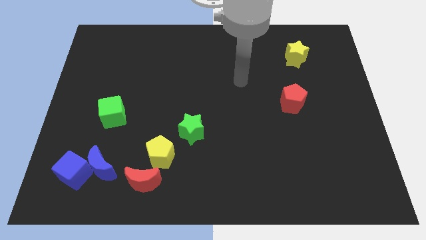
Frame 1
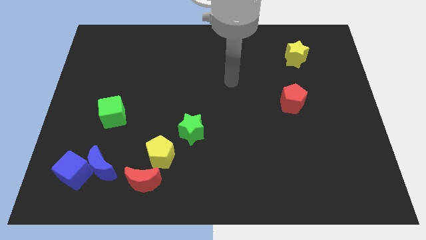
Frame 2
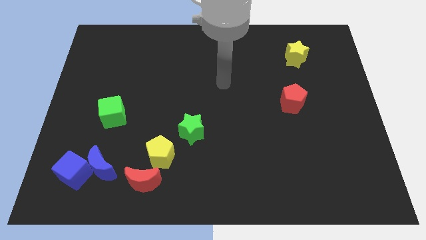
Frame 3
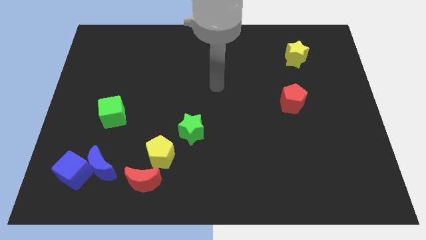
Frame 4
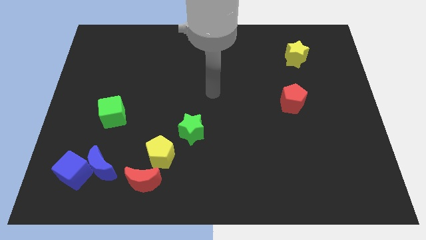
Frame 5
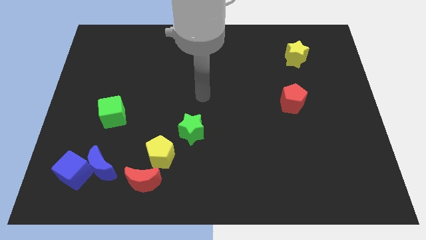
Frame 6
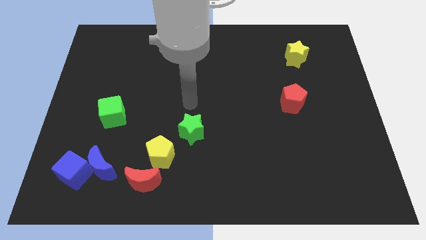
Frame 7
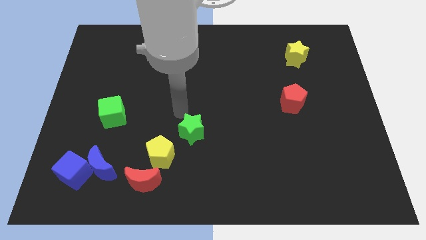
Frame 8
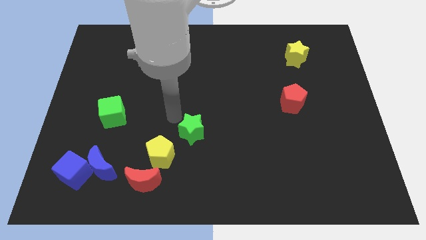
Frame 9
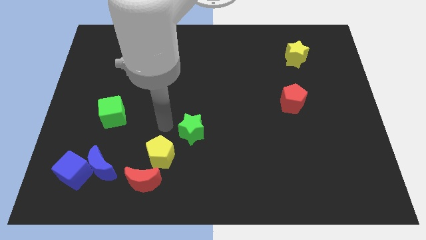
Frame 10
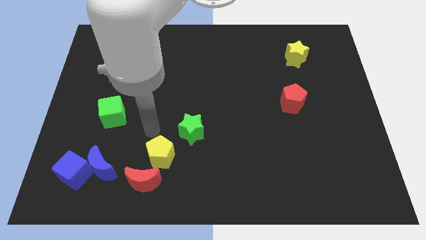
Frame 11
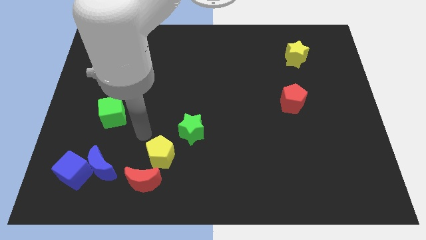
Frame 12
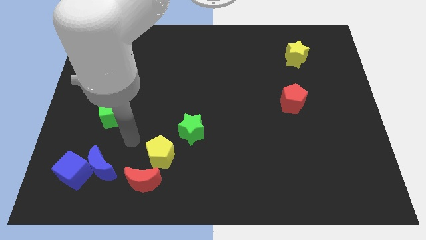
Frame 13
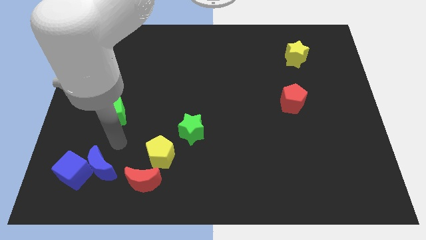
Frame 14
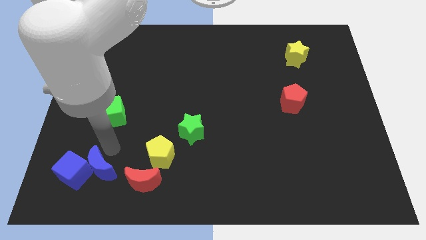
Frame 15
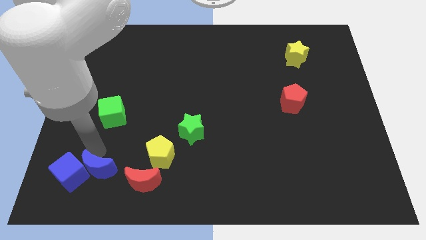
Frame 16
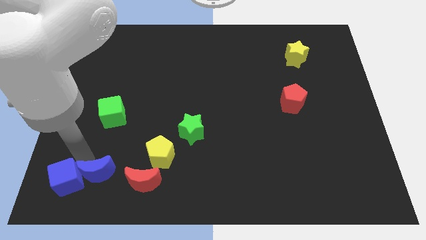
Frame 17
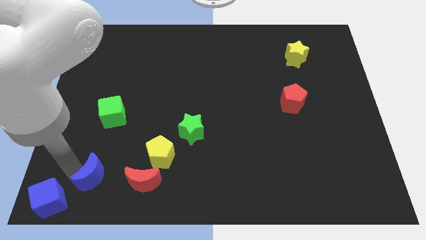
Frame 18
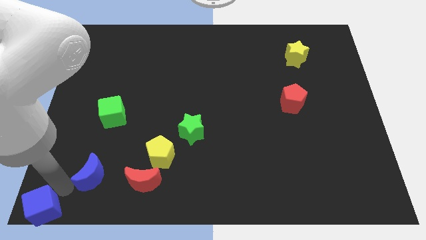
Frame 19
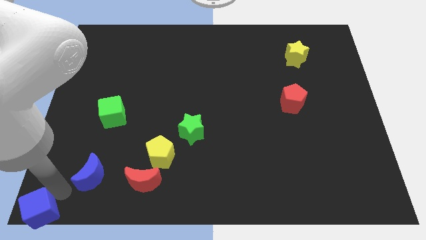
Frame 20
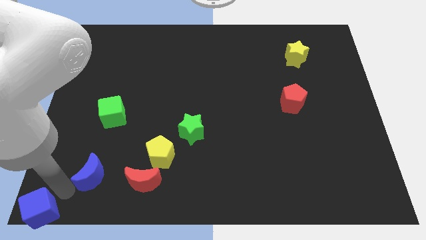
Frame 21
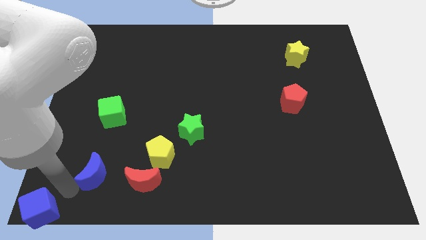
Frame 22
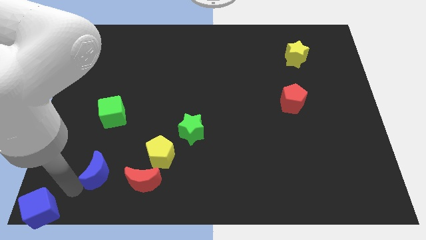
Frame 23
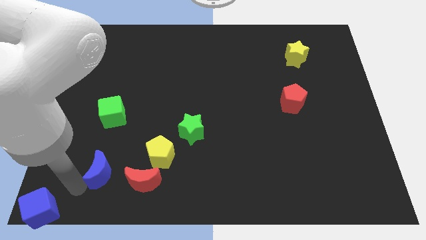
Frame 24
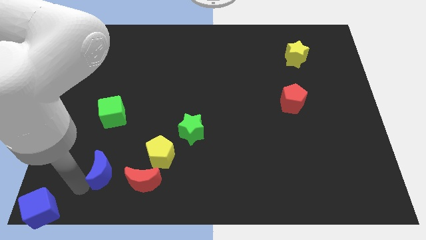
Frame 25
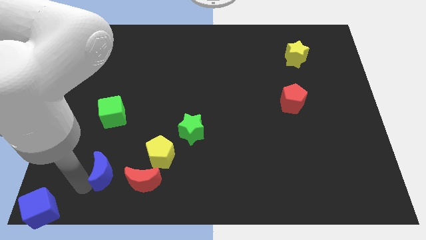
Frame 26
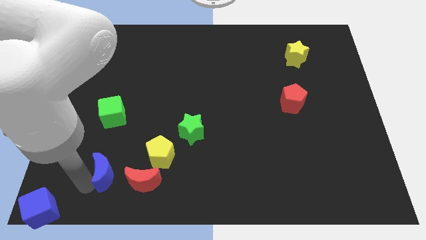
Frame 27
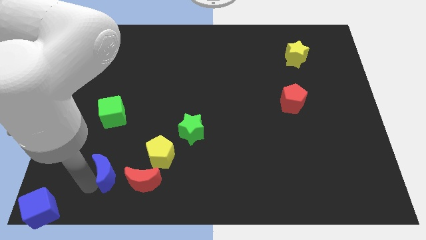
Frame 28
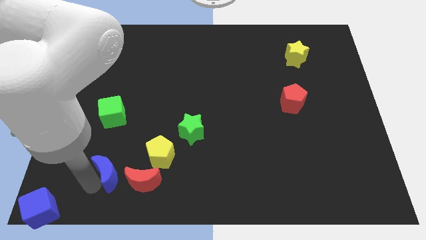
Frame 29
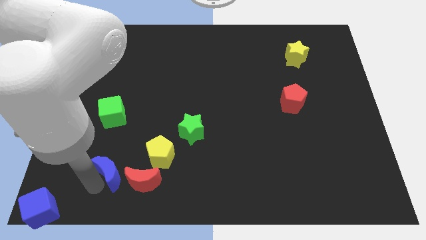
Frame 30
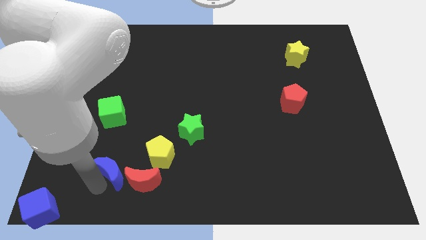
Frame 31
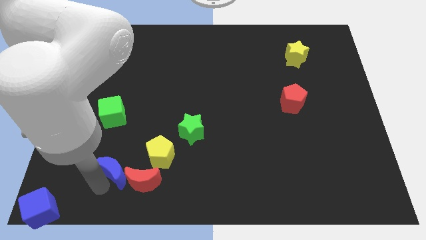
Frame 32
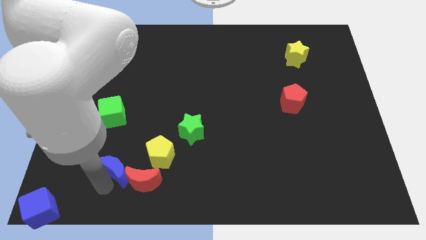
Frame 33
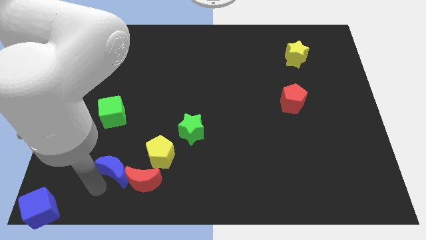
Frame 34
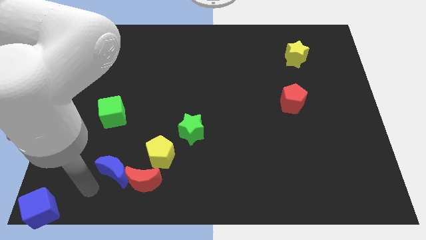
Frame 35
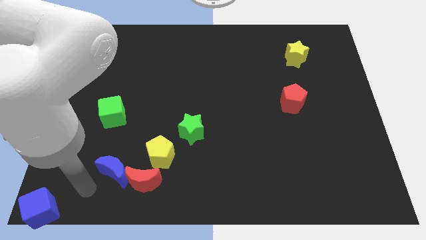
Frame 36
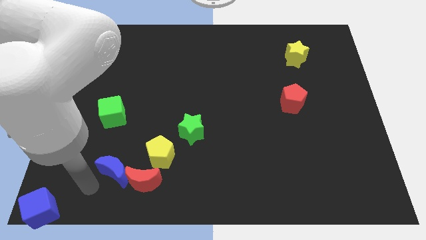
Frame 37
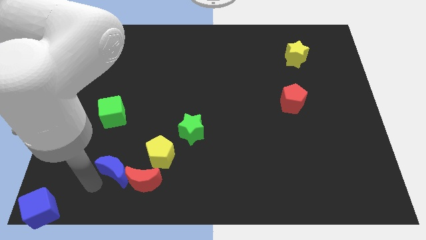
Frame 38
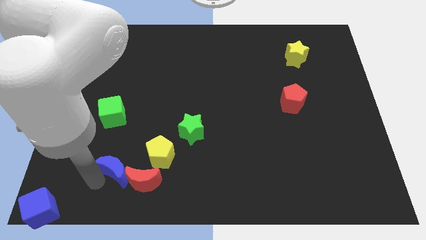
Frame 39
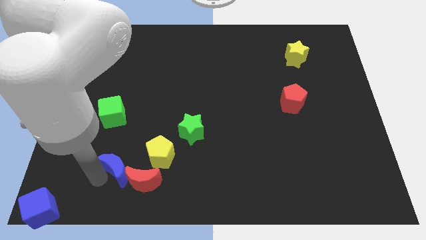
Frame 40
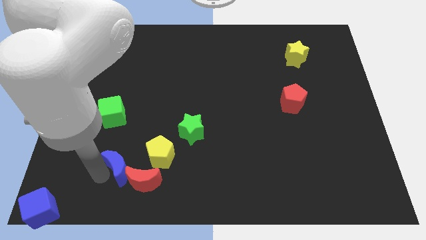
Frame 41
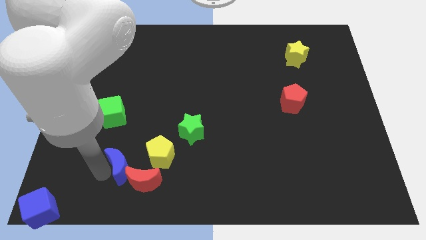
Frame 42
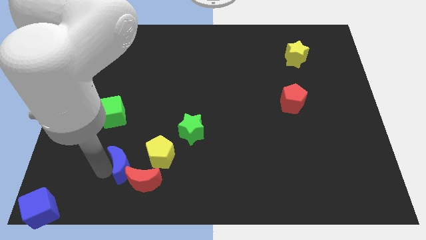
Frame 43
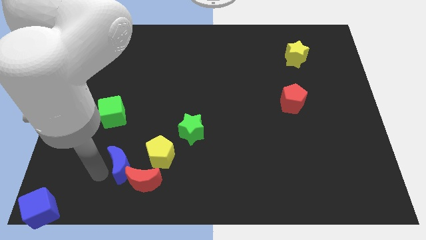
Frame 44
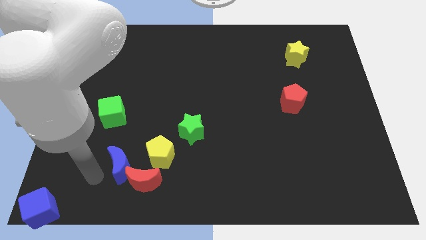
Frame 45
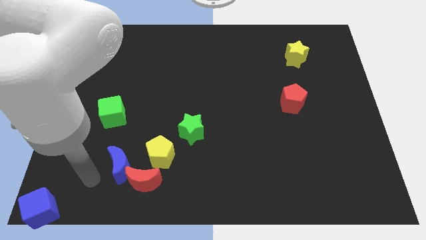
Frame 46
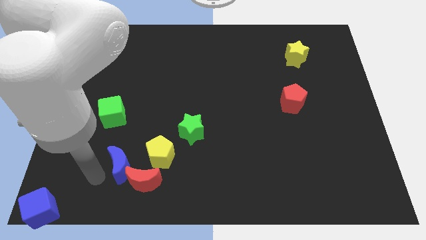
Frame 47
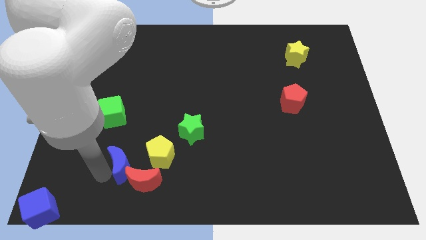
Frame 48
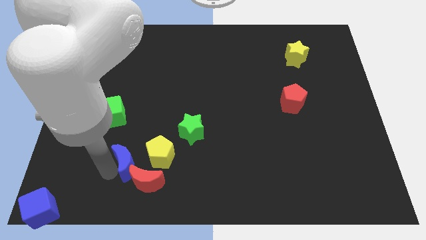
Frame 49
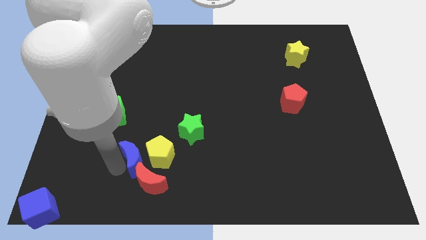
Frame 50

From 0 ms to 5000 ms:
slide the blue moon to the yellow pentagon

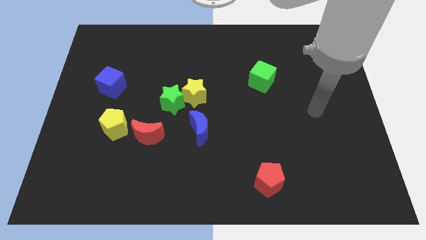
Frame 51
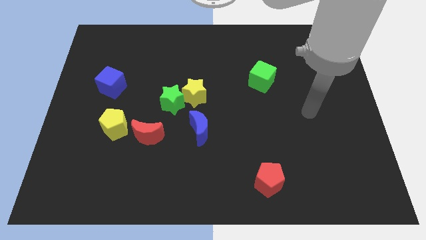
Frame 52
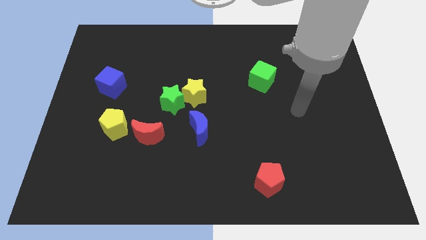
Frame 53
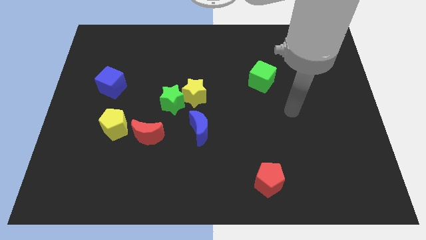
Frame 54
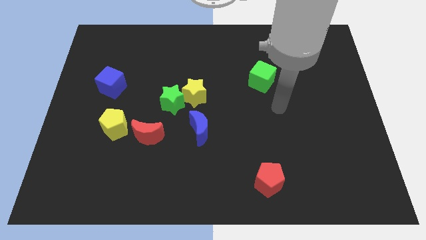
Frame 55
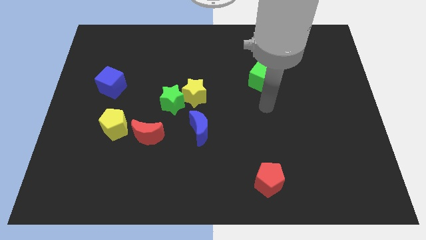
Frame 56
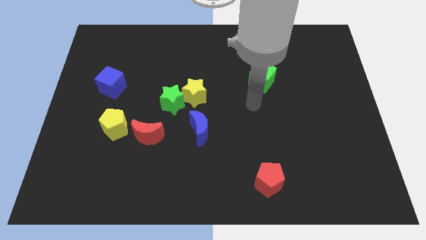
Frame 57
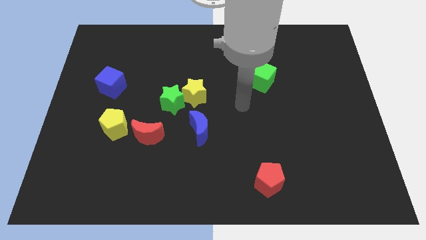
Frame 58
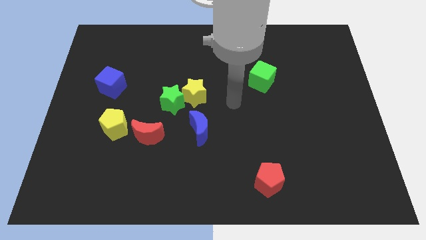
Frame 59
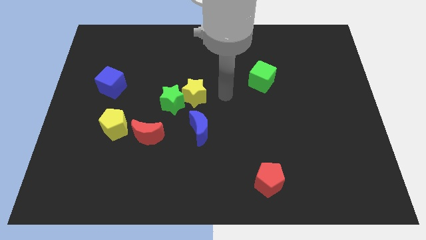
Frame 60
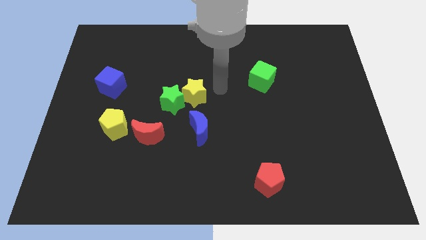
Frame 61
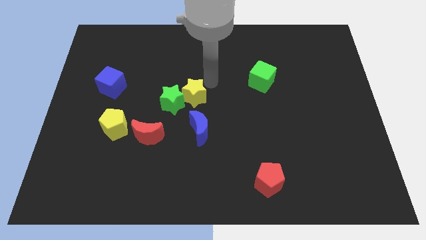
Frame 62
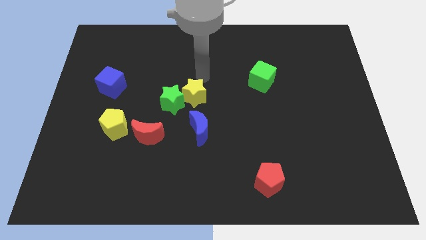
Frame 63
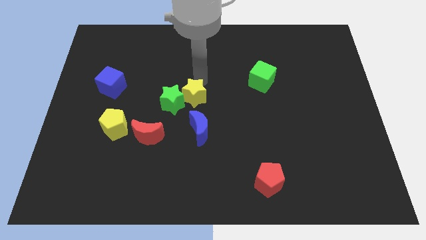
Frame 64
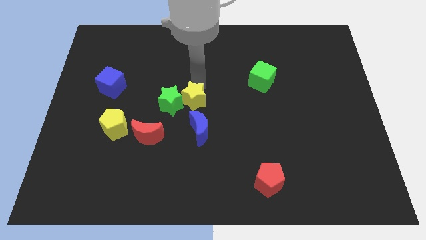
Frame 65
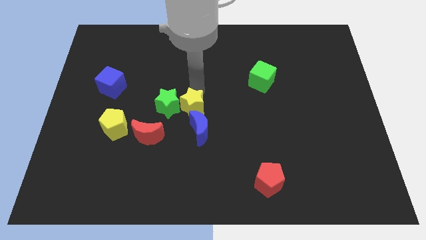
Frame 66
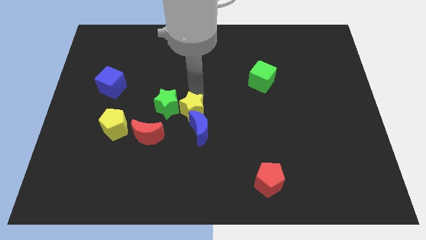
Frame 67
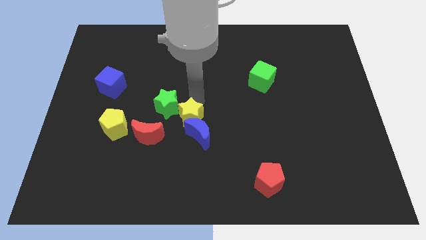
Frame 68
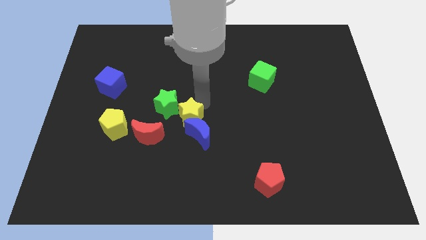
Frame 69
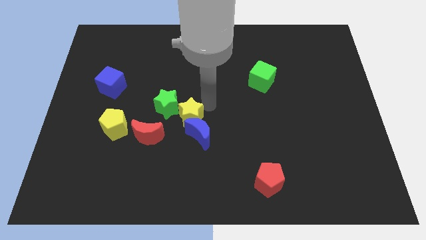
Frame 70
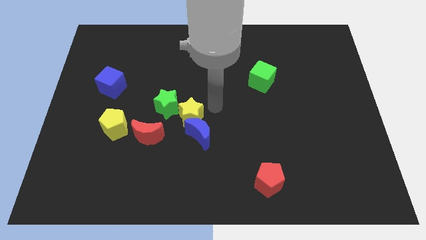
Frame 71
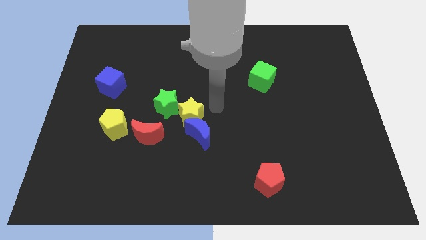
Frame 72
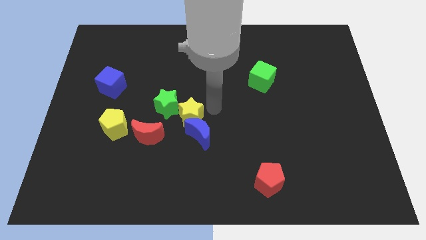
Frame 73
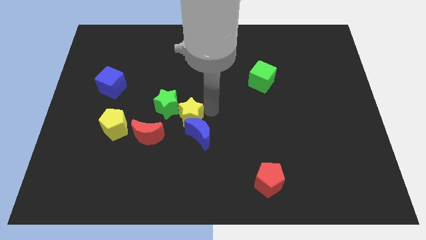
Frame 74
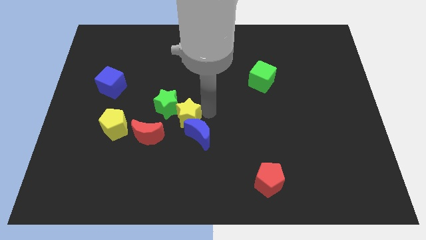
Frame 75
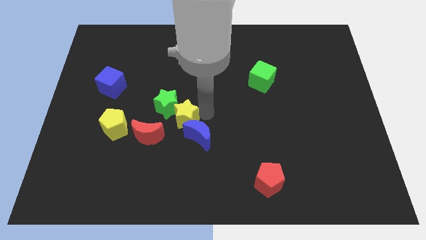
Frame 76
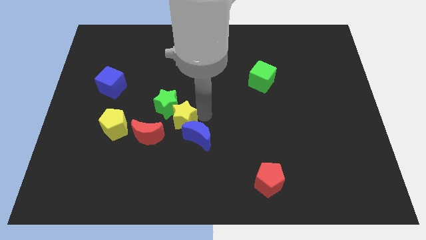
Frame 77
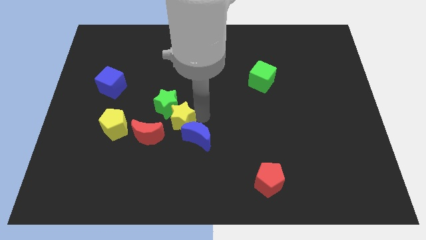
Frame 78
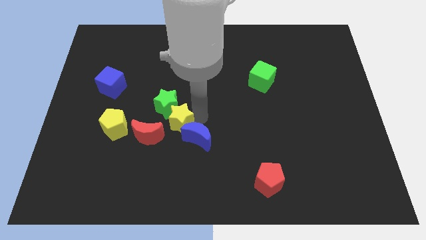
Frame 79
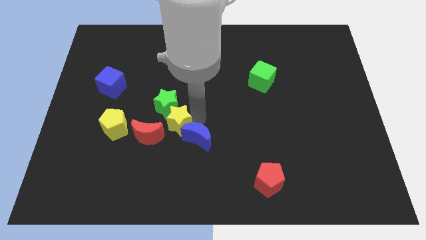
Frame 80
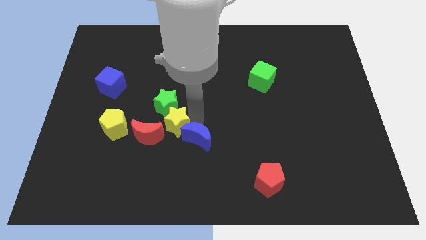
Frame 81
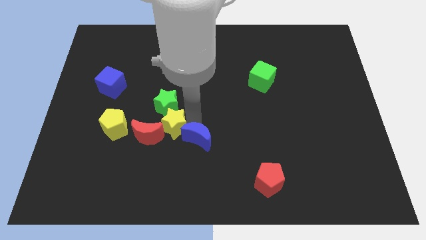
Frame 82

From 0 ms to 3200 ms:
push the yellow star towards the red moon
